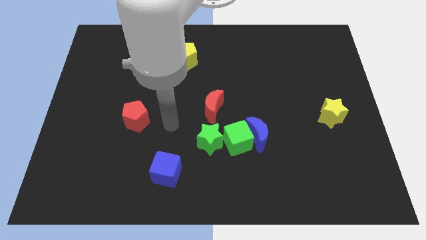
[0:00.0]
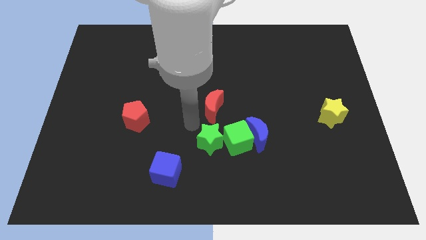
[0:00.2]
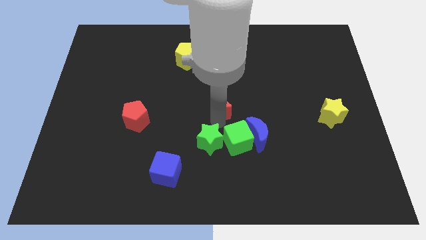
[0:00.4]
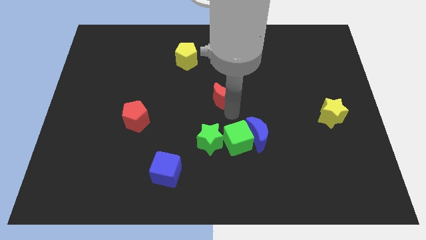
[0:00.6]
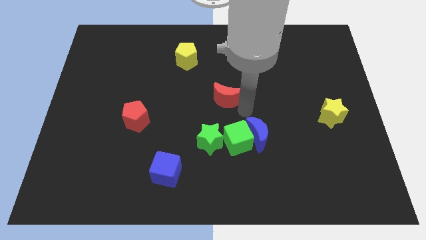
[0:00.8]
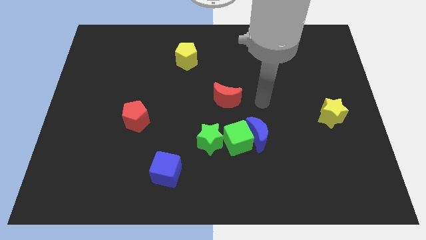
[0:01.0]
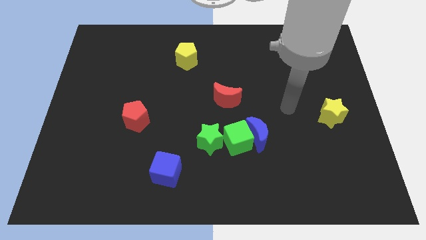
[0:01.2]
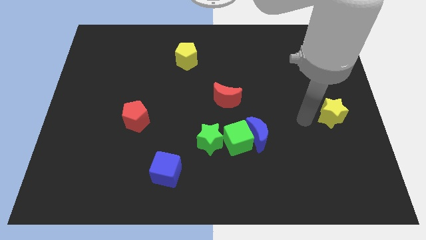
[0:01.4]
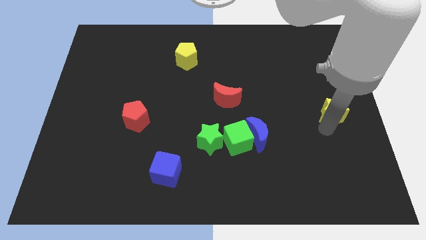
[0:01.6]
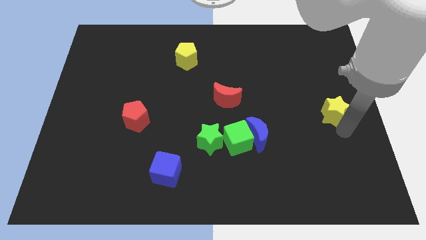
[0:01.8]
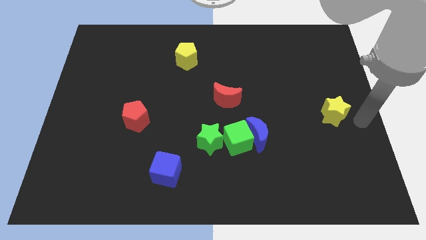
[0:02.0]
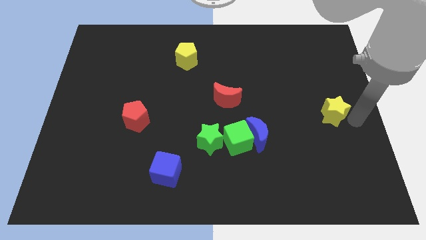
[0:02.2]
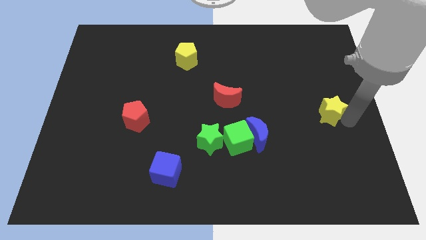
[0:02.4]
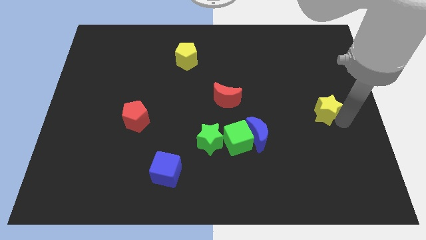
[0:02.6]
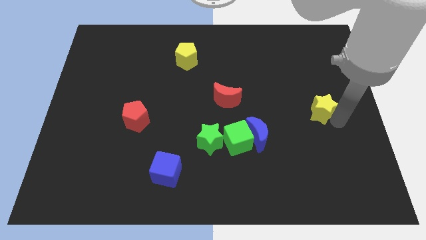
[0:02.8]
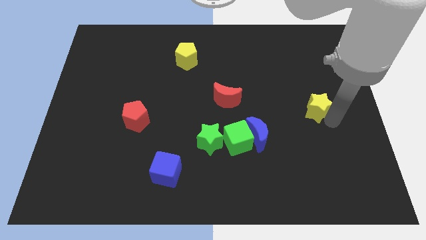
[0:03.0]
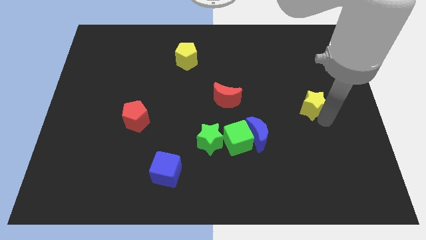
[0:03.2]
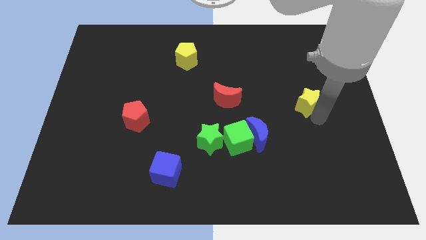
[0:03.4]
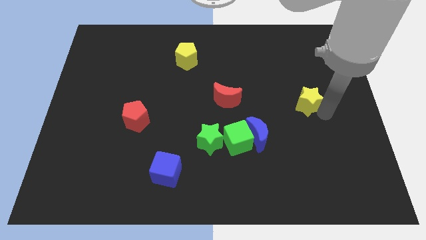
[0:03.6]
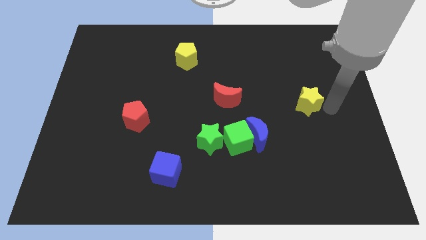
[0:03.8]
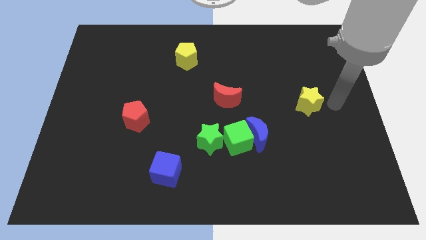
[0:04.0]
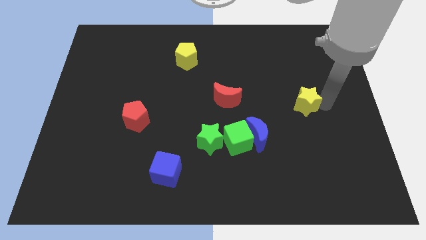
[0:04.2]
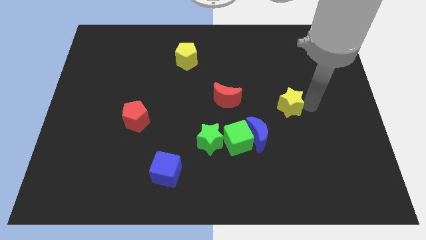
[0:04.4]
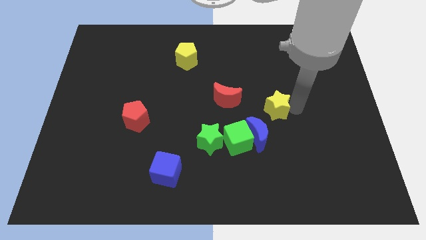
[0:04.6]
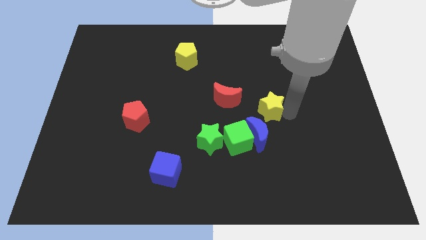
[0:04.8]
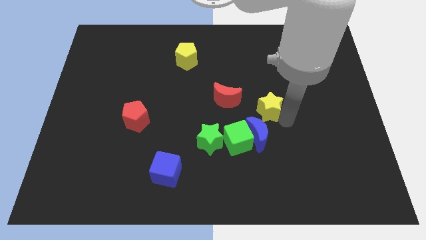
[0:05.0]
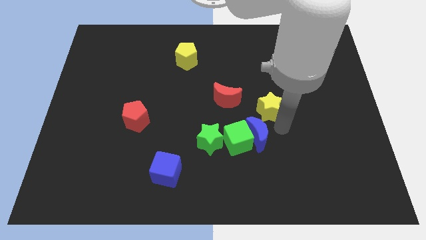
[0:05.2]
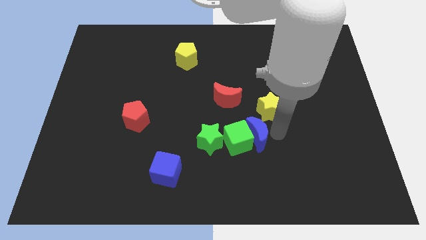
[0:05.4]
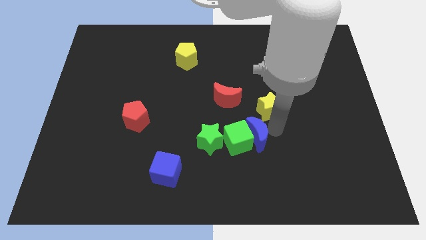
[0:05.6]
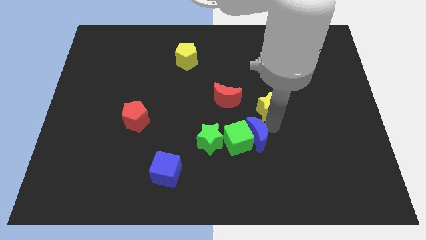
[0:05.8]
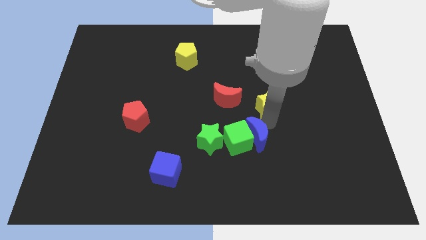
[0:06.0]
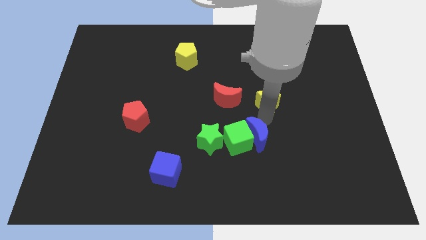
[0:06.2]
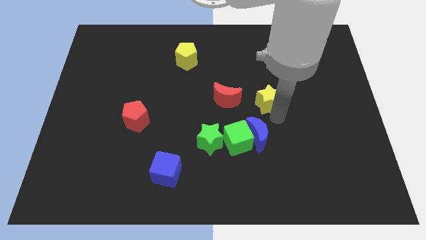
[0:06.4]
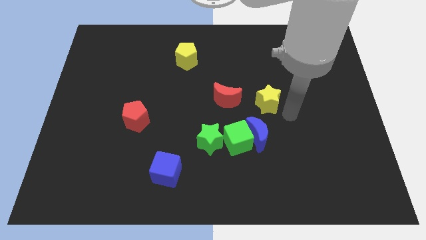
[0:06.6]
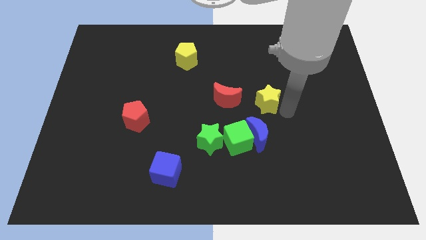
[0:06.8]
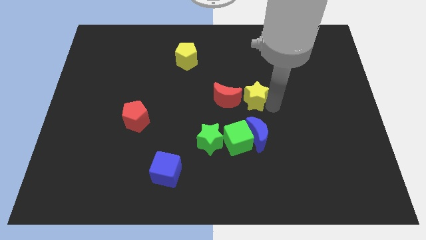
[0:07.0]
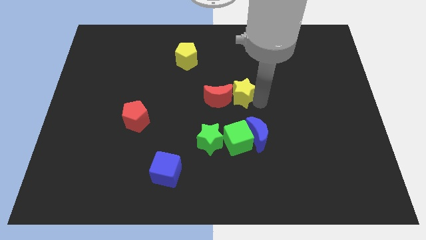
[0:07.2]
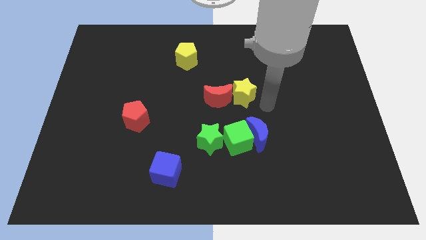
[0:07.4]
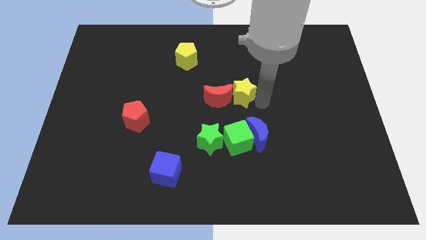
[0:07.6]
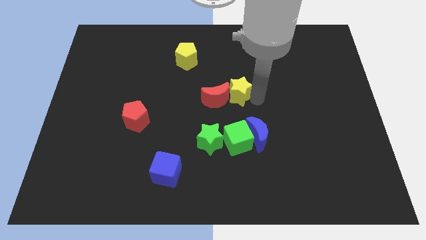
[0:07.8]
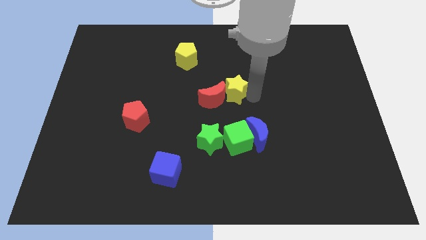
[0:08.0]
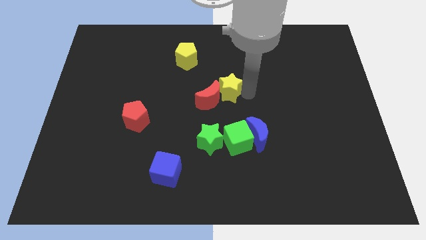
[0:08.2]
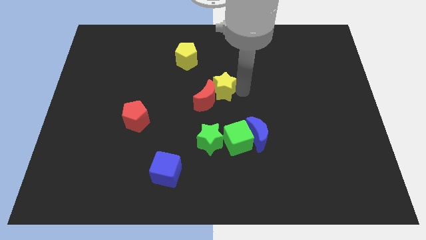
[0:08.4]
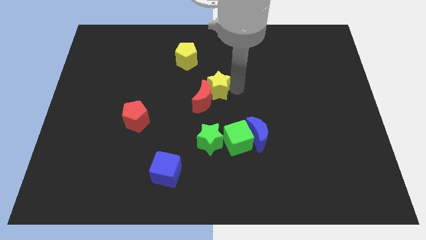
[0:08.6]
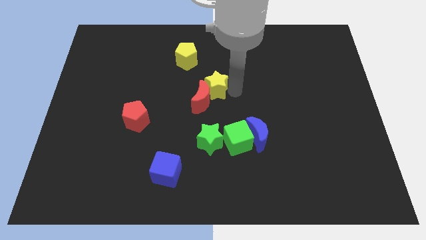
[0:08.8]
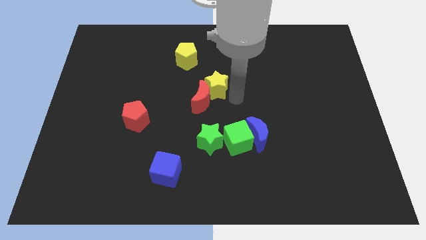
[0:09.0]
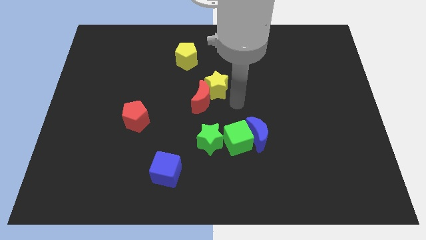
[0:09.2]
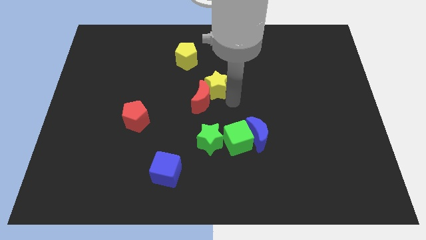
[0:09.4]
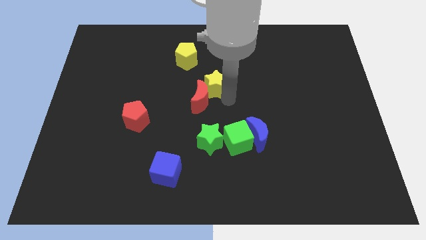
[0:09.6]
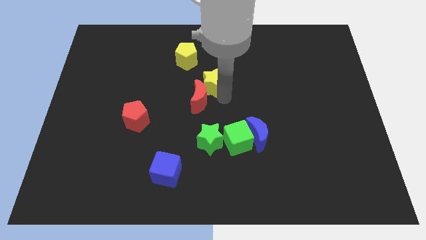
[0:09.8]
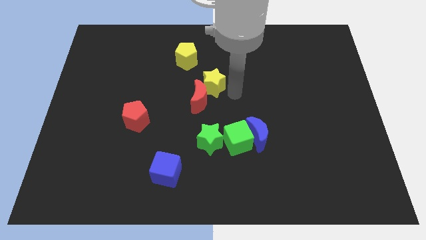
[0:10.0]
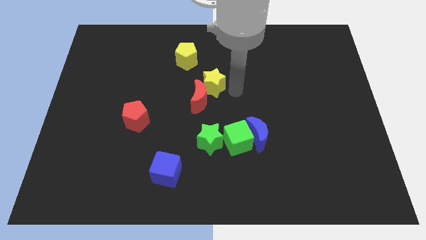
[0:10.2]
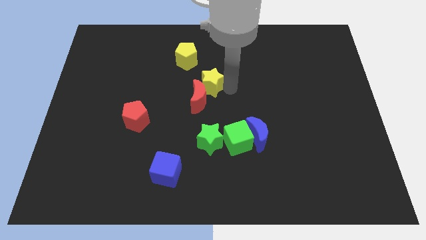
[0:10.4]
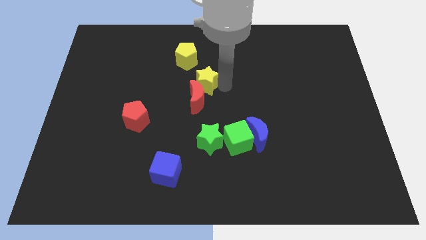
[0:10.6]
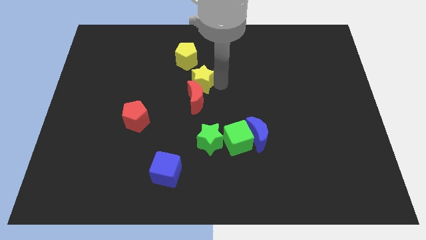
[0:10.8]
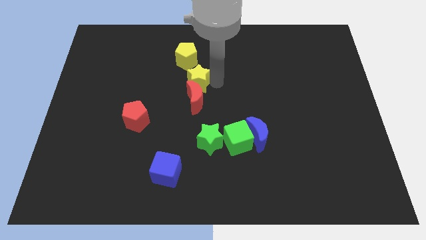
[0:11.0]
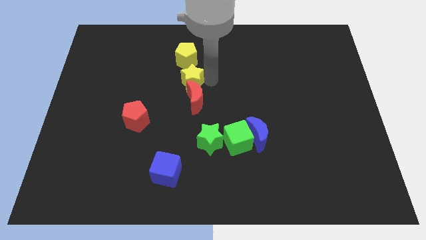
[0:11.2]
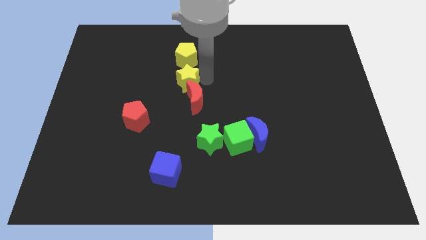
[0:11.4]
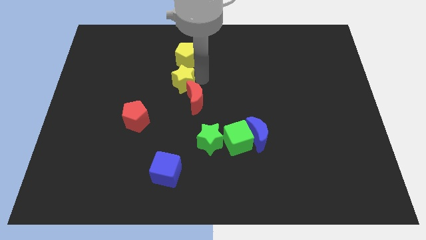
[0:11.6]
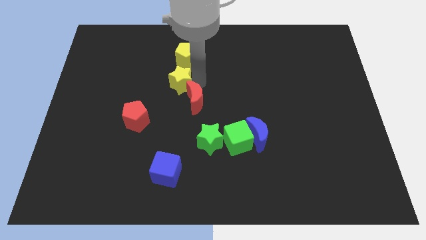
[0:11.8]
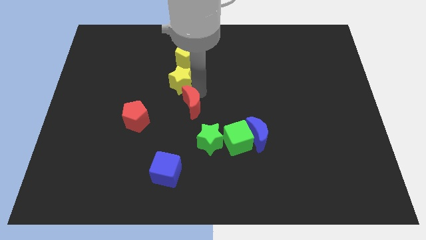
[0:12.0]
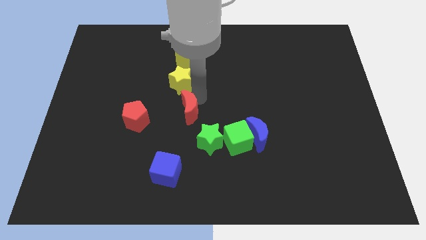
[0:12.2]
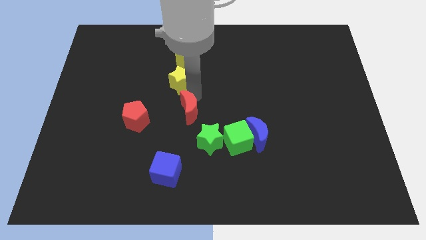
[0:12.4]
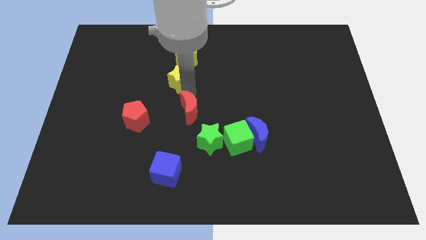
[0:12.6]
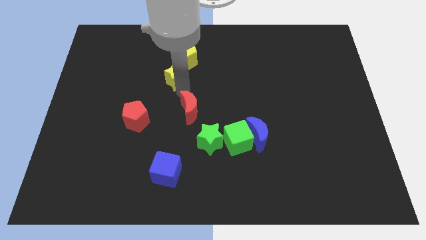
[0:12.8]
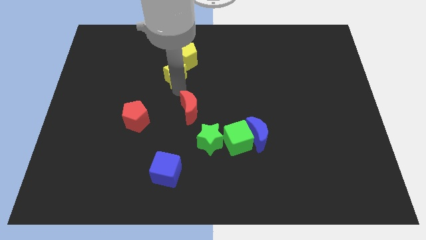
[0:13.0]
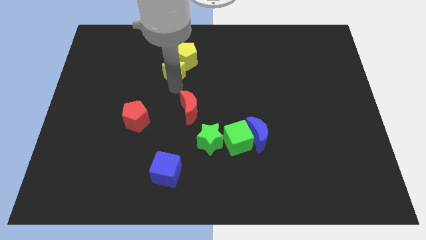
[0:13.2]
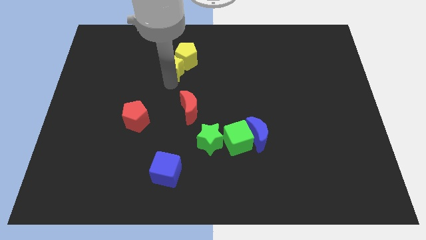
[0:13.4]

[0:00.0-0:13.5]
move the yellow star to the left of the yellow pentagon

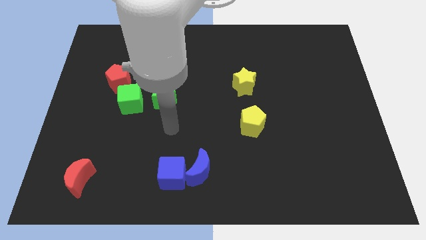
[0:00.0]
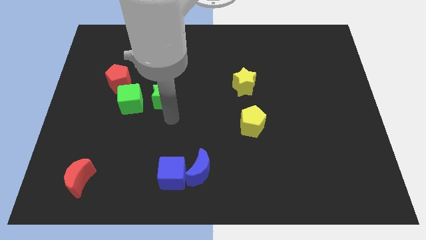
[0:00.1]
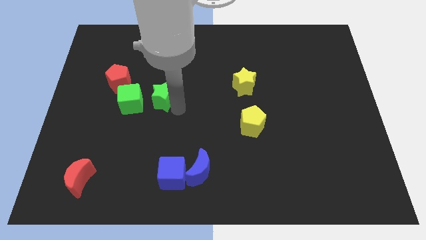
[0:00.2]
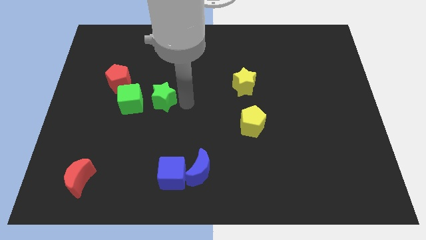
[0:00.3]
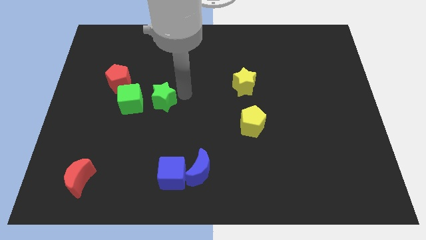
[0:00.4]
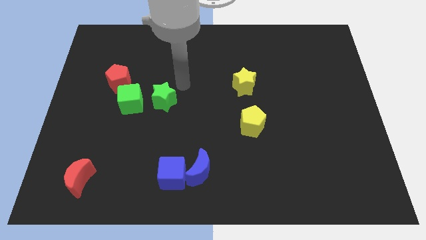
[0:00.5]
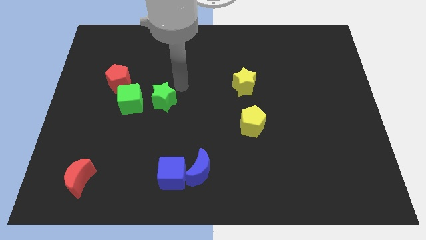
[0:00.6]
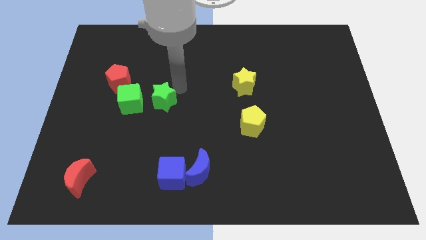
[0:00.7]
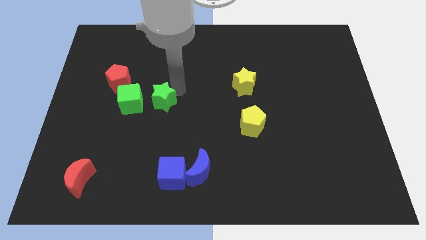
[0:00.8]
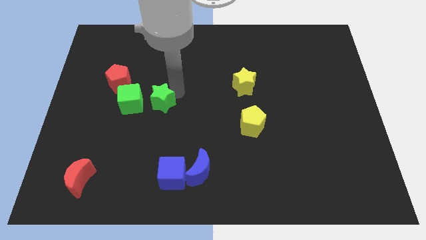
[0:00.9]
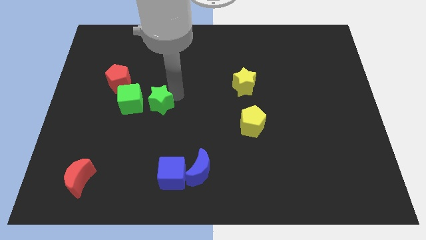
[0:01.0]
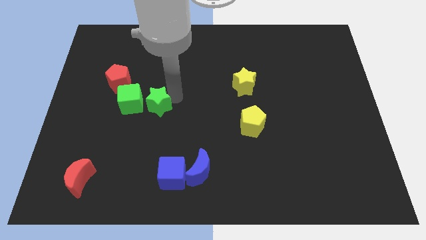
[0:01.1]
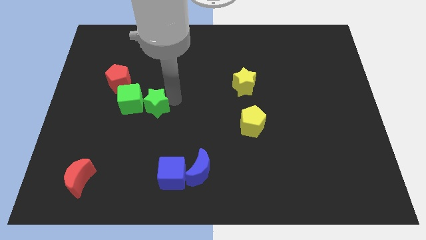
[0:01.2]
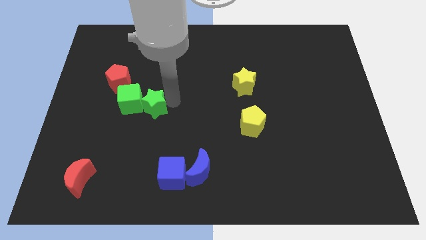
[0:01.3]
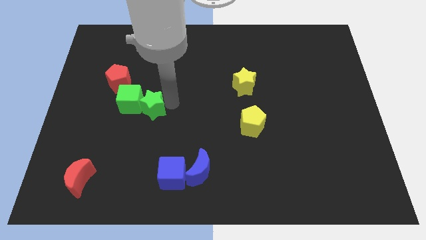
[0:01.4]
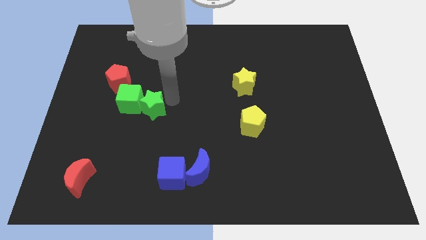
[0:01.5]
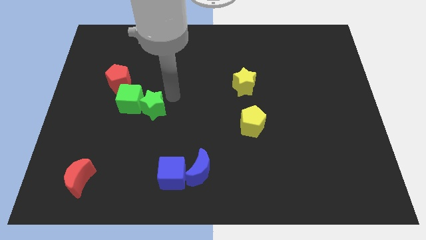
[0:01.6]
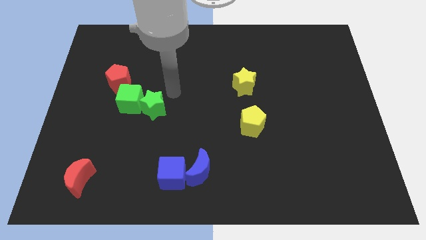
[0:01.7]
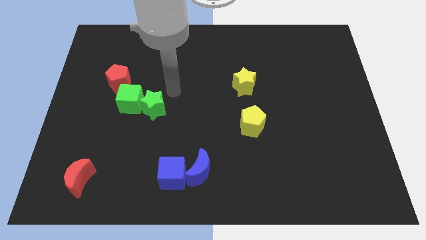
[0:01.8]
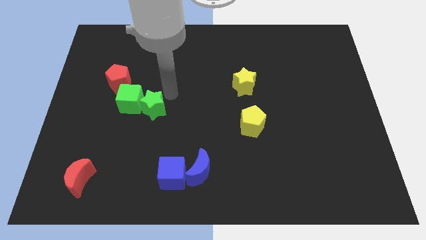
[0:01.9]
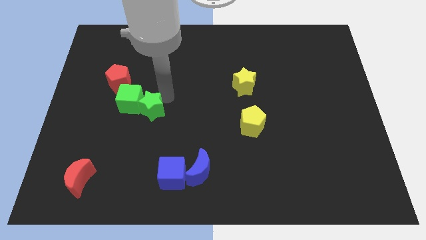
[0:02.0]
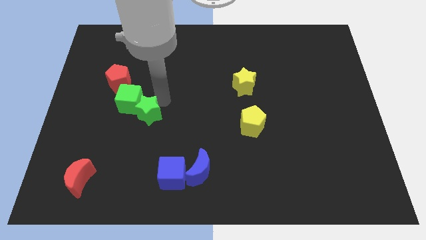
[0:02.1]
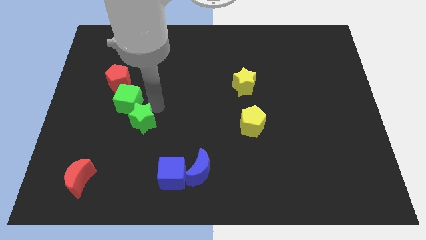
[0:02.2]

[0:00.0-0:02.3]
move the green star to the bottom of the green cube
